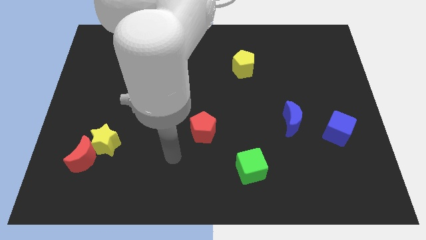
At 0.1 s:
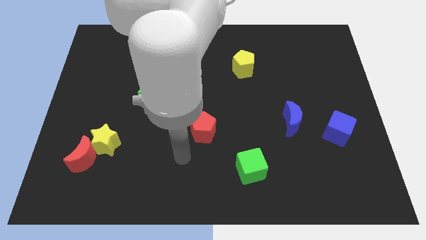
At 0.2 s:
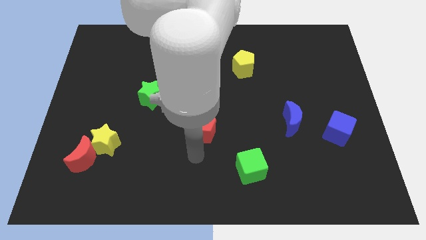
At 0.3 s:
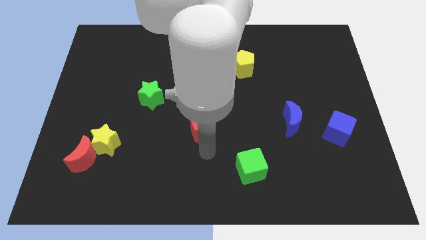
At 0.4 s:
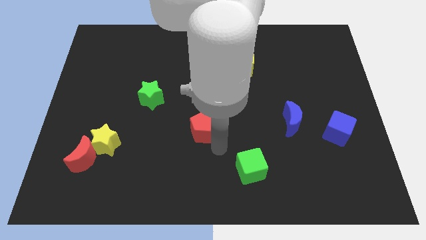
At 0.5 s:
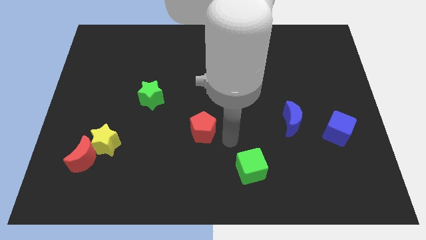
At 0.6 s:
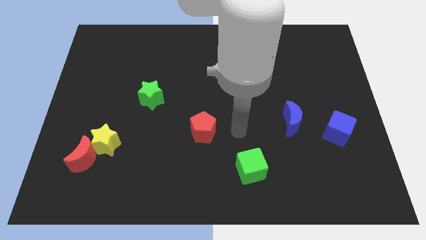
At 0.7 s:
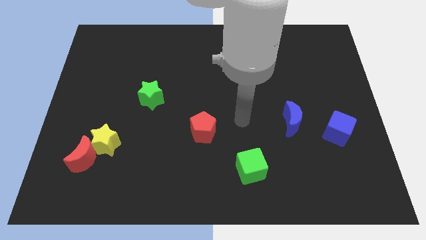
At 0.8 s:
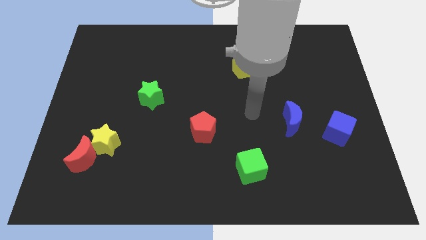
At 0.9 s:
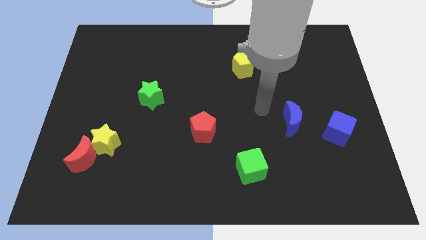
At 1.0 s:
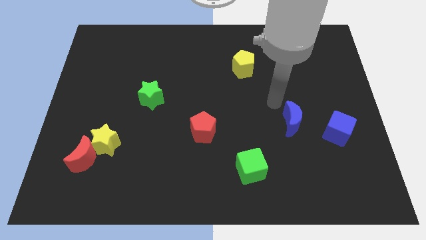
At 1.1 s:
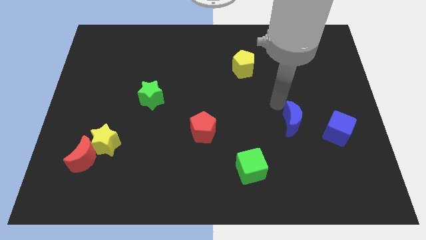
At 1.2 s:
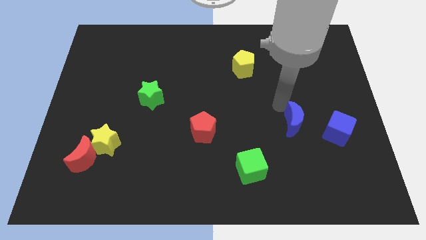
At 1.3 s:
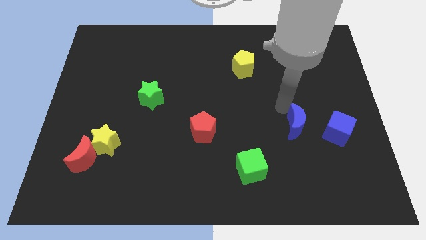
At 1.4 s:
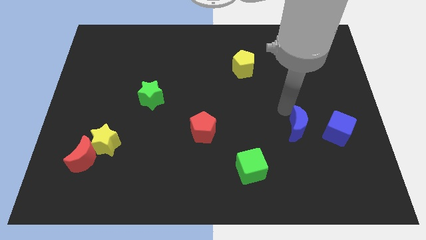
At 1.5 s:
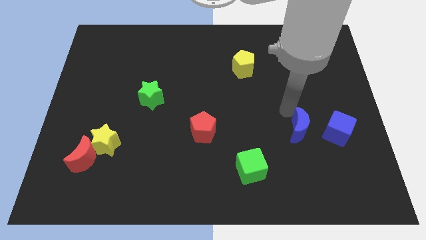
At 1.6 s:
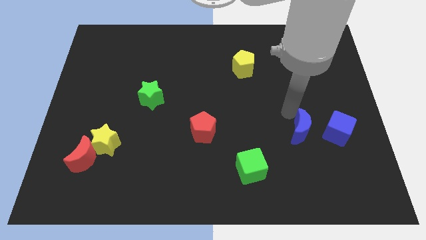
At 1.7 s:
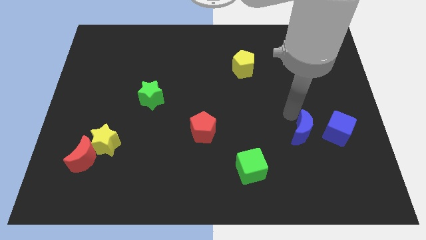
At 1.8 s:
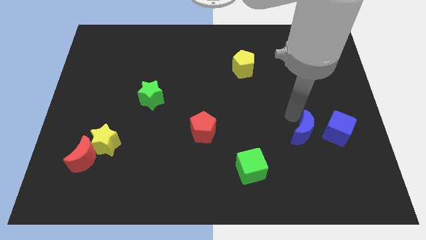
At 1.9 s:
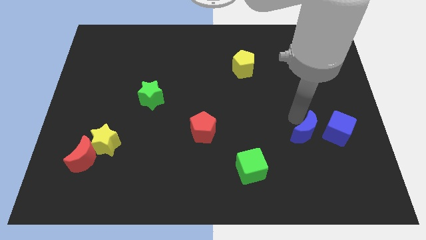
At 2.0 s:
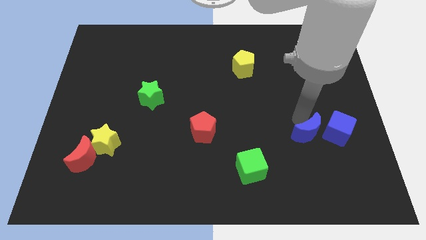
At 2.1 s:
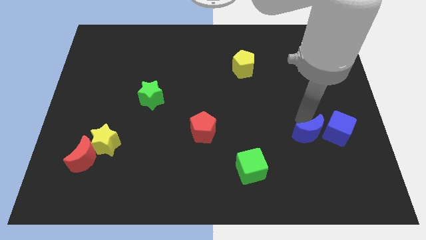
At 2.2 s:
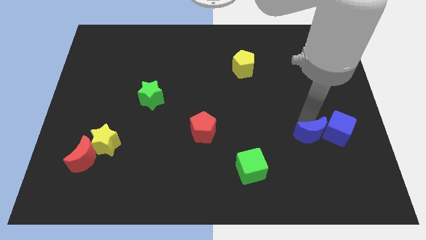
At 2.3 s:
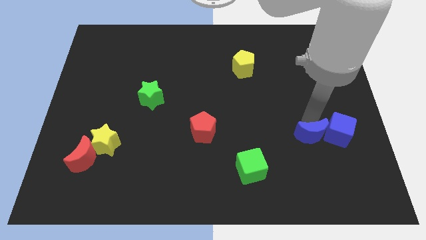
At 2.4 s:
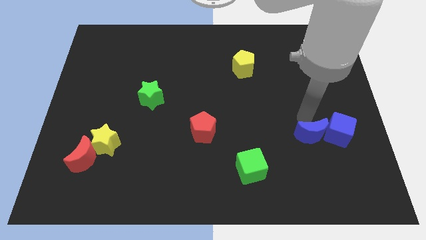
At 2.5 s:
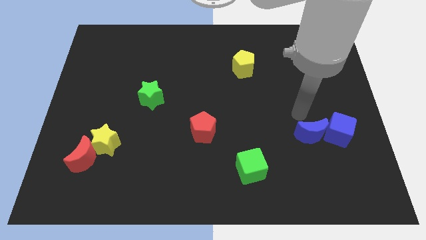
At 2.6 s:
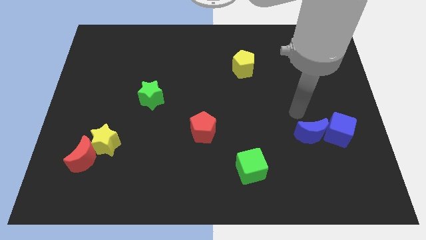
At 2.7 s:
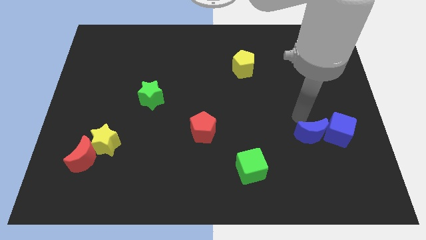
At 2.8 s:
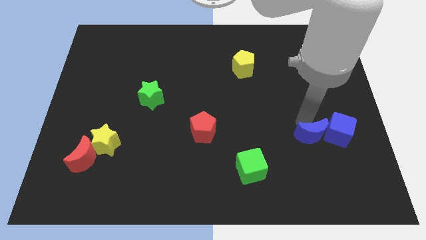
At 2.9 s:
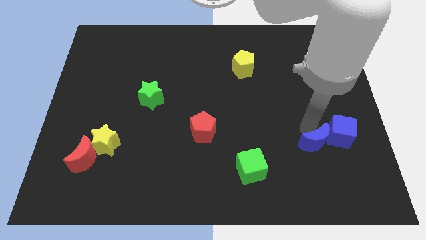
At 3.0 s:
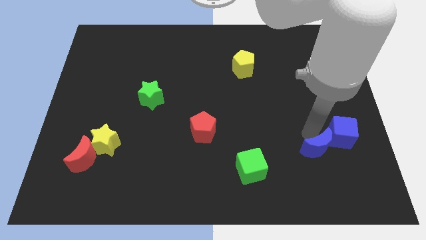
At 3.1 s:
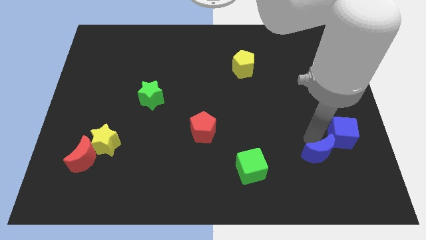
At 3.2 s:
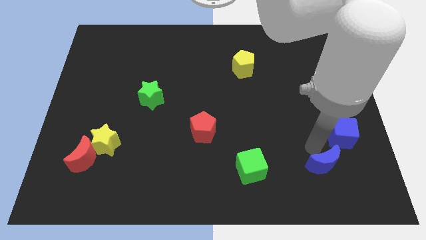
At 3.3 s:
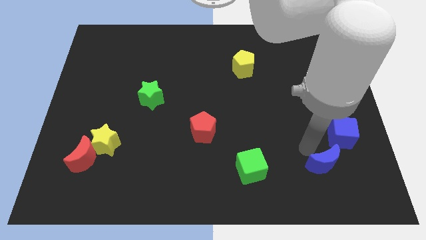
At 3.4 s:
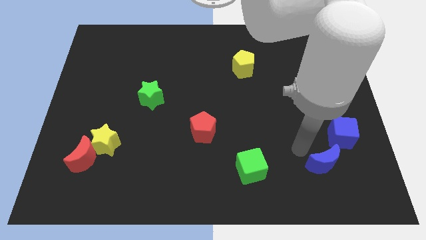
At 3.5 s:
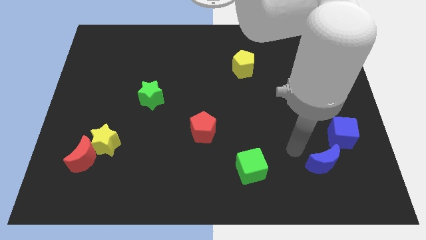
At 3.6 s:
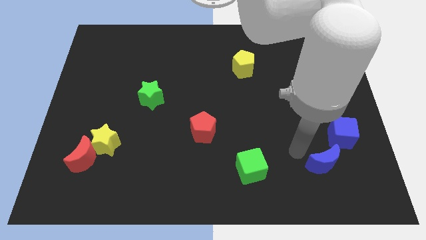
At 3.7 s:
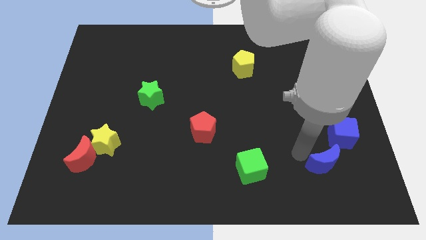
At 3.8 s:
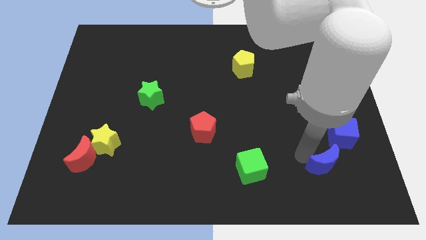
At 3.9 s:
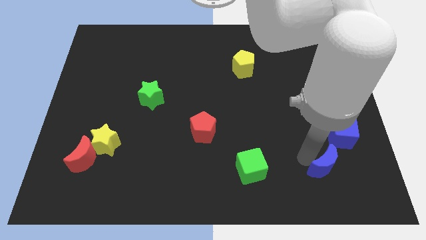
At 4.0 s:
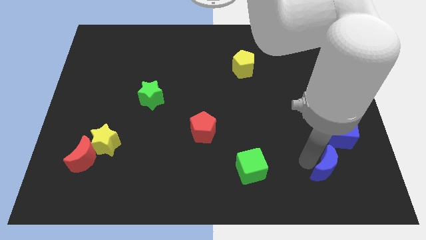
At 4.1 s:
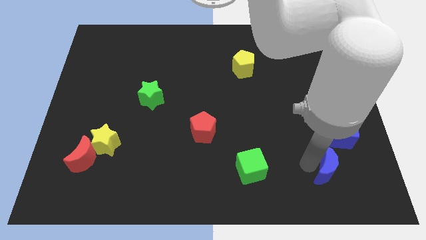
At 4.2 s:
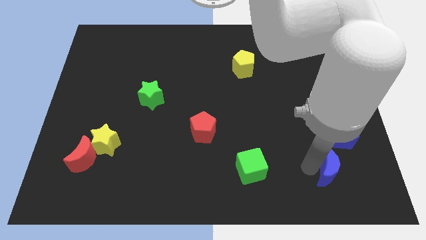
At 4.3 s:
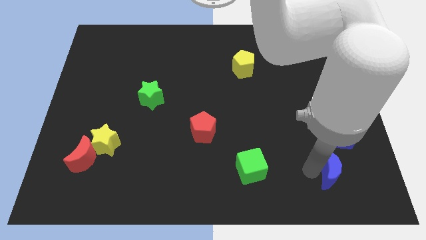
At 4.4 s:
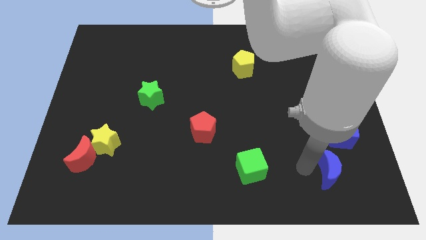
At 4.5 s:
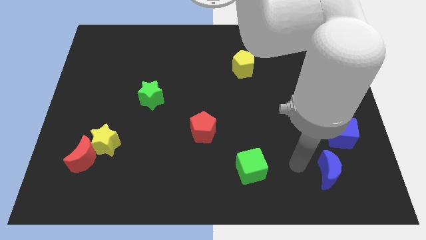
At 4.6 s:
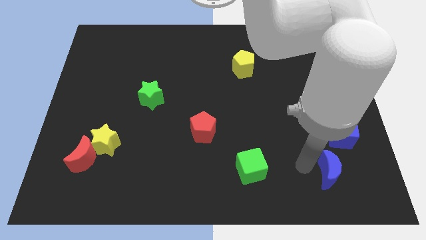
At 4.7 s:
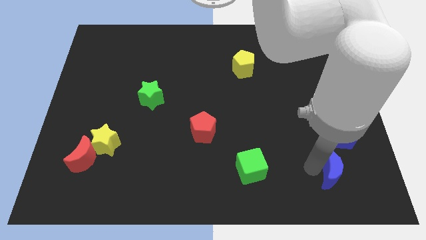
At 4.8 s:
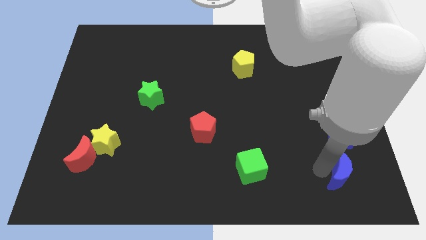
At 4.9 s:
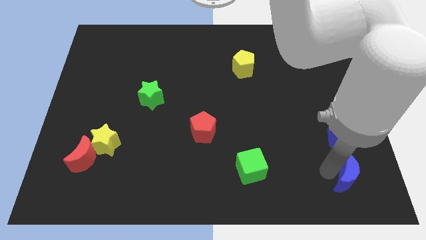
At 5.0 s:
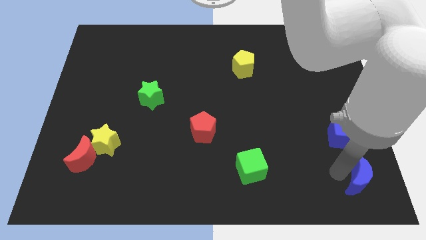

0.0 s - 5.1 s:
move the blue moon to the bottom right corner

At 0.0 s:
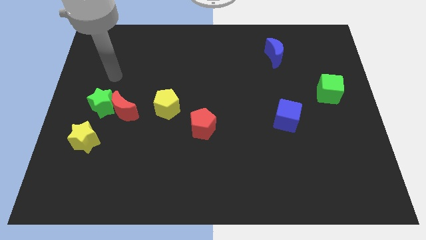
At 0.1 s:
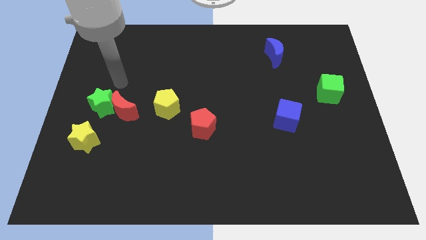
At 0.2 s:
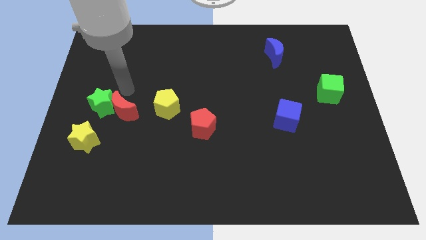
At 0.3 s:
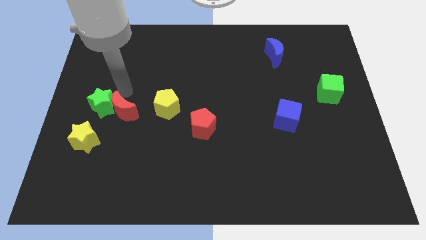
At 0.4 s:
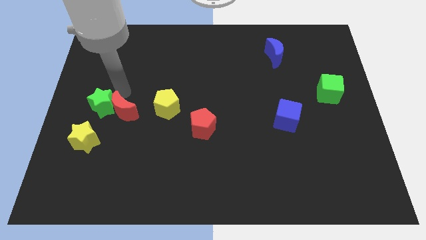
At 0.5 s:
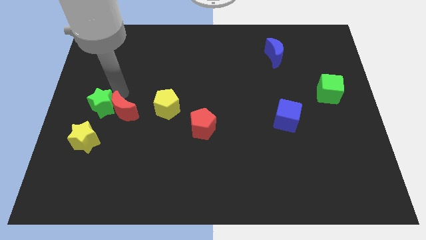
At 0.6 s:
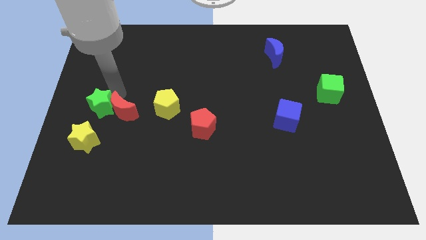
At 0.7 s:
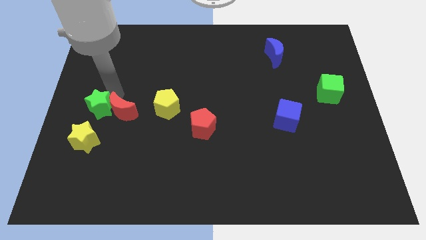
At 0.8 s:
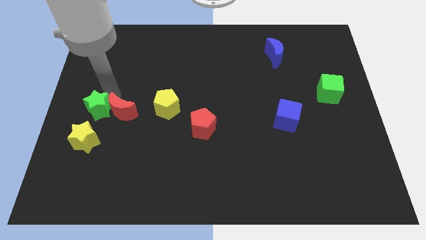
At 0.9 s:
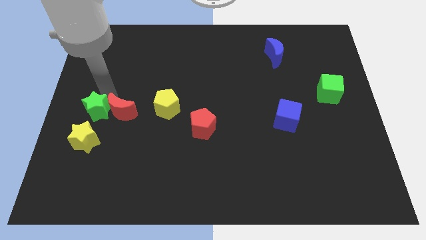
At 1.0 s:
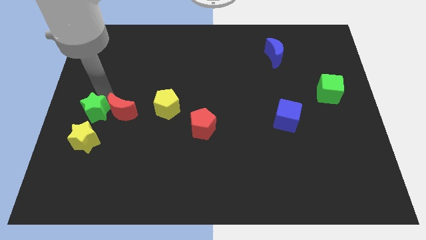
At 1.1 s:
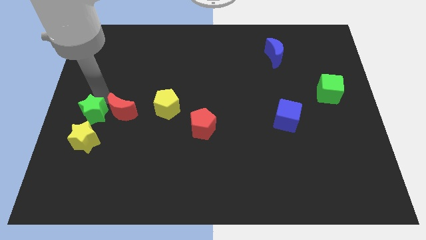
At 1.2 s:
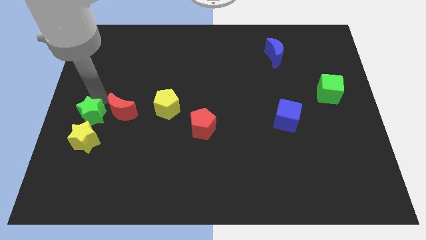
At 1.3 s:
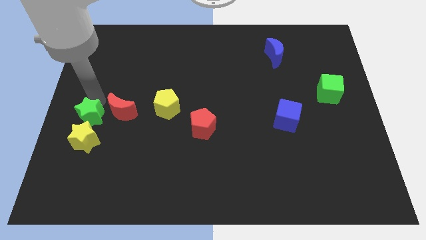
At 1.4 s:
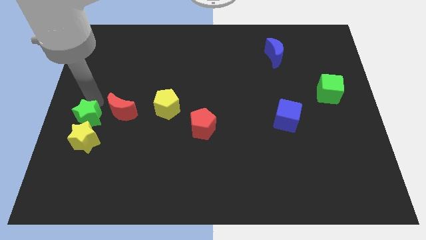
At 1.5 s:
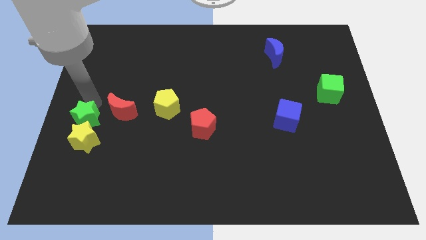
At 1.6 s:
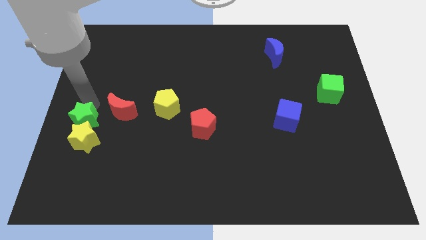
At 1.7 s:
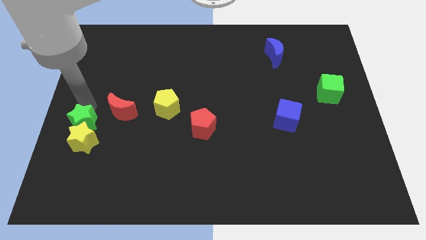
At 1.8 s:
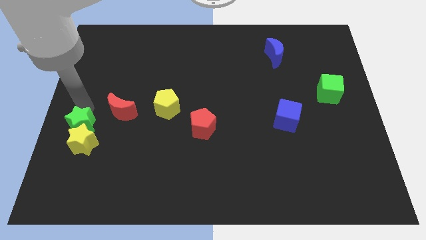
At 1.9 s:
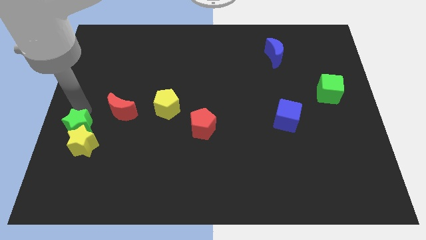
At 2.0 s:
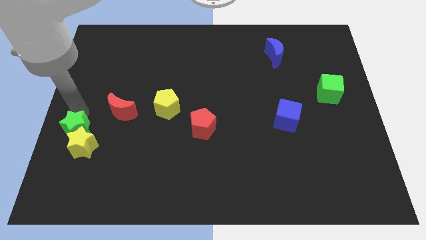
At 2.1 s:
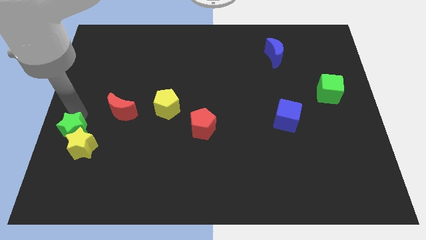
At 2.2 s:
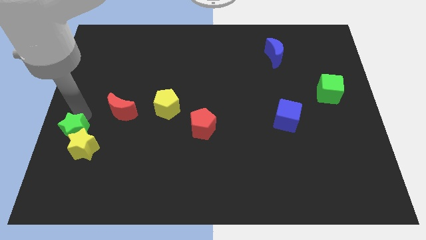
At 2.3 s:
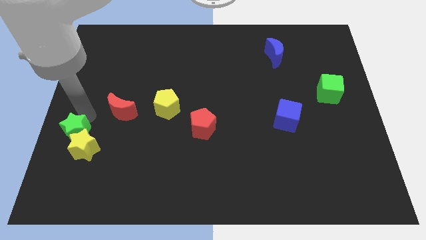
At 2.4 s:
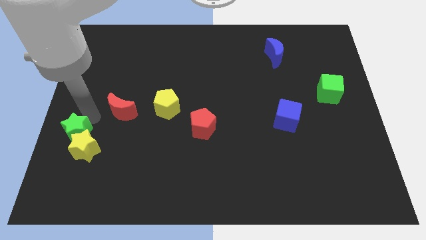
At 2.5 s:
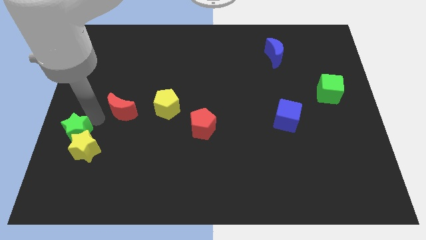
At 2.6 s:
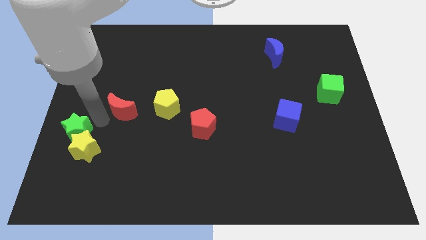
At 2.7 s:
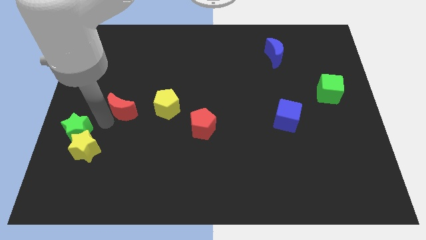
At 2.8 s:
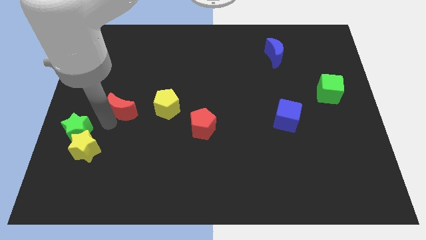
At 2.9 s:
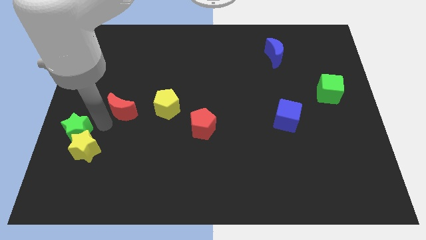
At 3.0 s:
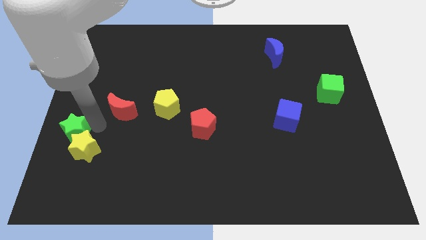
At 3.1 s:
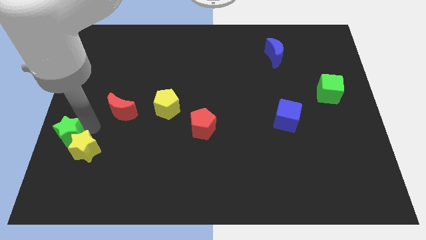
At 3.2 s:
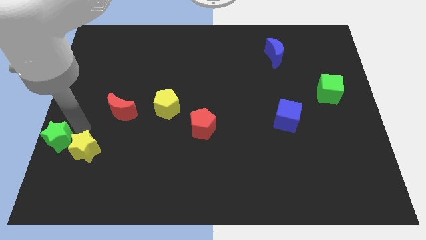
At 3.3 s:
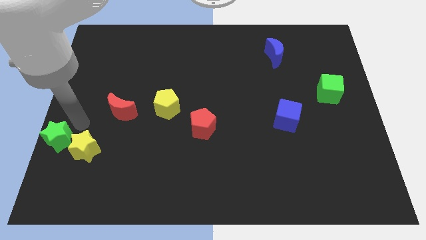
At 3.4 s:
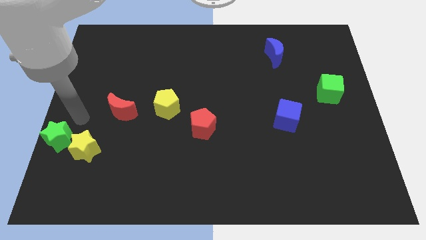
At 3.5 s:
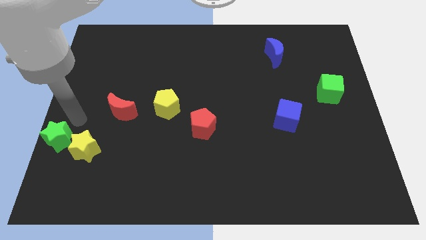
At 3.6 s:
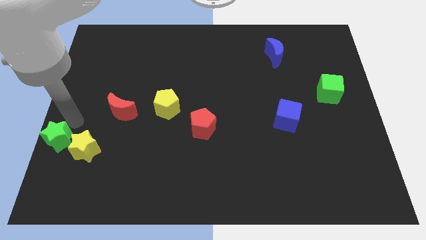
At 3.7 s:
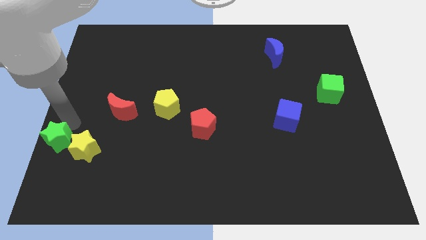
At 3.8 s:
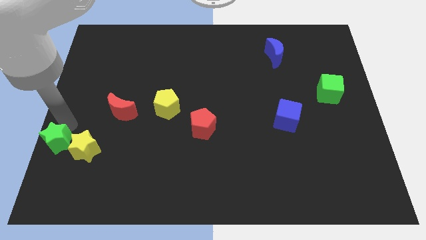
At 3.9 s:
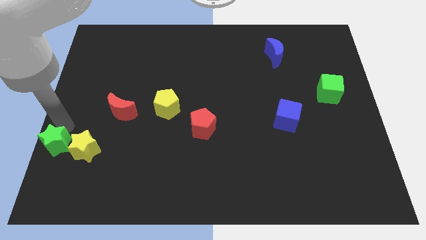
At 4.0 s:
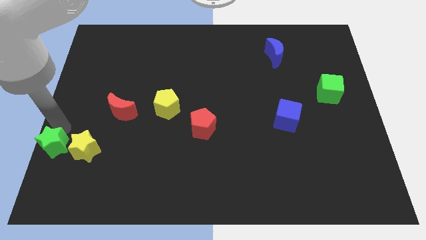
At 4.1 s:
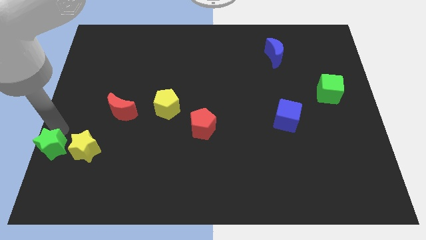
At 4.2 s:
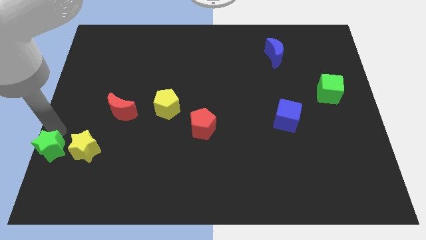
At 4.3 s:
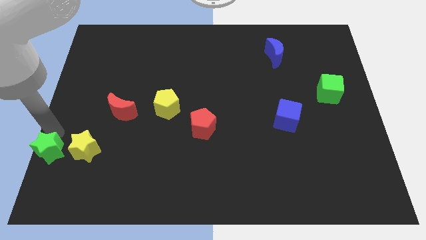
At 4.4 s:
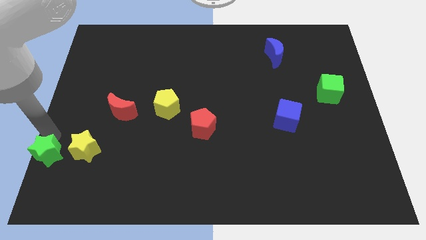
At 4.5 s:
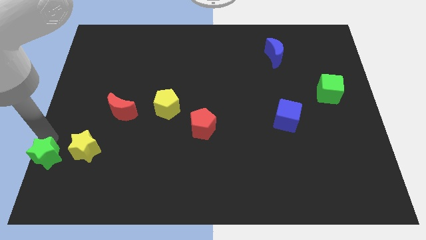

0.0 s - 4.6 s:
move the green star to the bottom left corner
